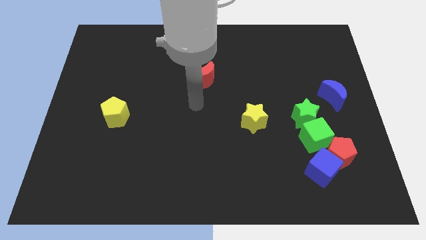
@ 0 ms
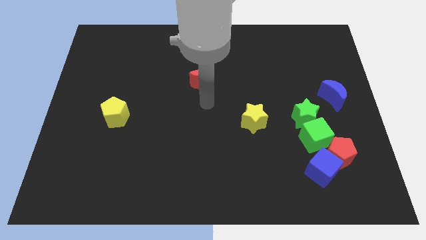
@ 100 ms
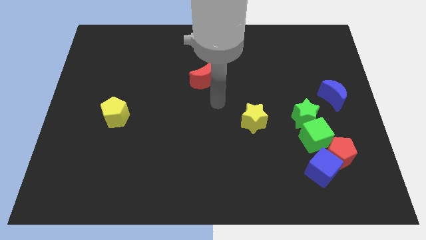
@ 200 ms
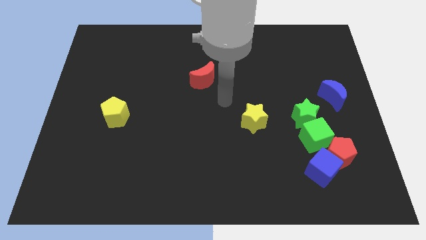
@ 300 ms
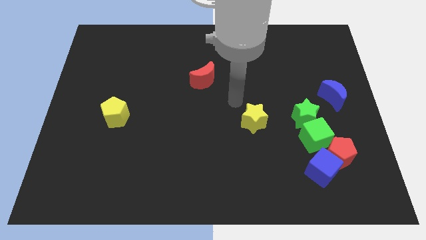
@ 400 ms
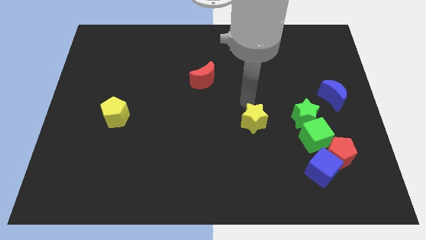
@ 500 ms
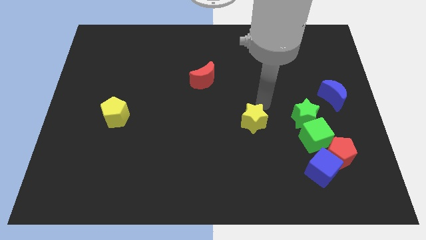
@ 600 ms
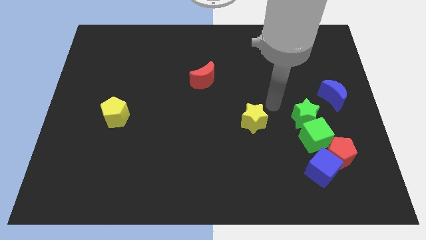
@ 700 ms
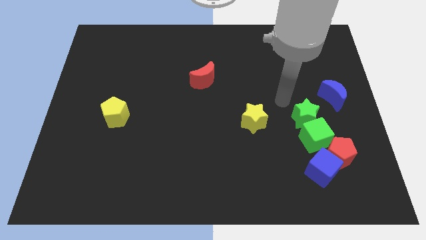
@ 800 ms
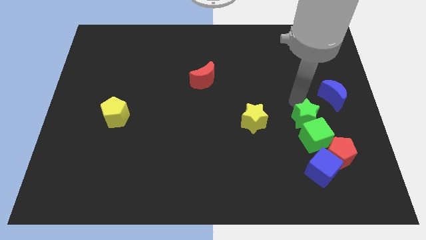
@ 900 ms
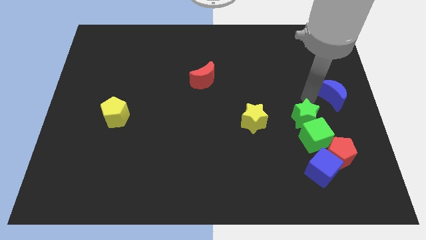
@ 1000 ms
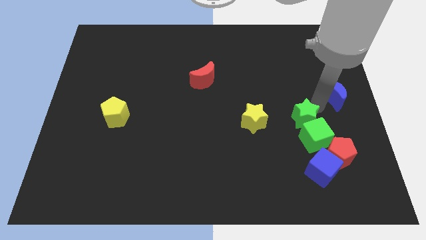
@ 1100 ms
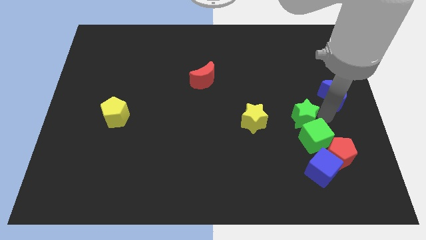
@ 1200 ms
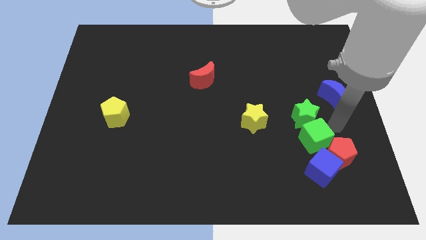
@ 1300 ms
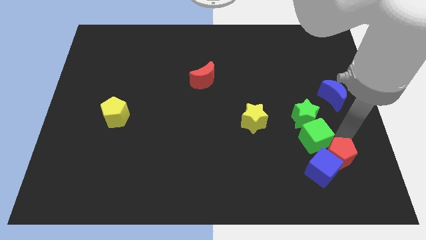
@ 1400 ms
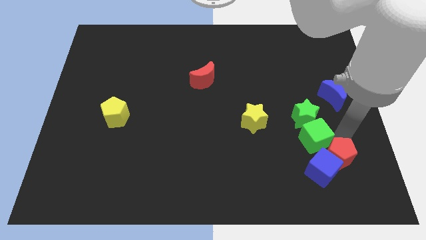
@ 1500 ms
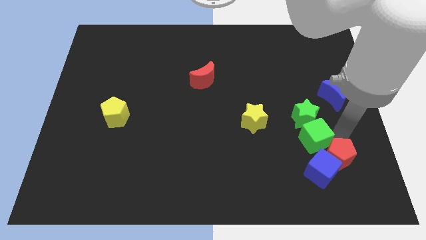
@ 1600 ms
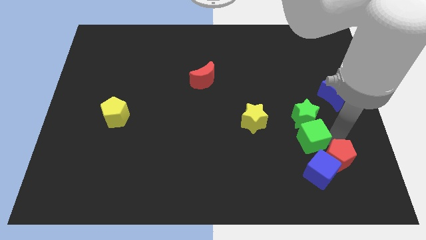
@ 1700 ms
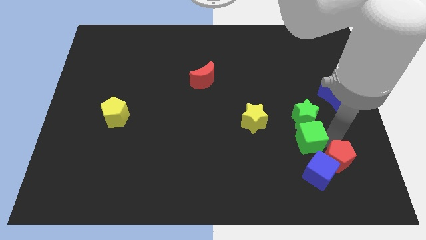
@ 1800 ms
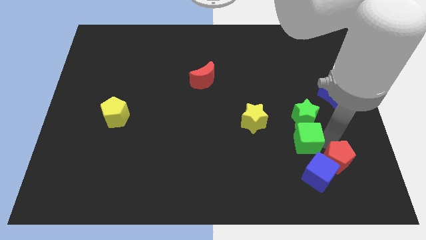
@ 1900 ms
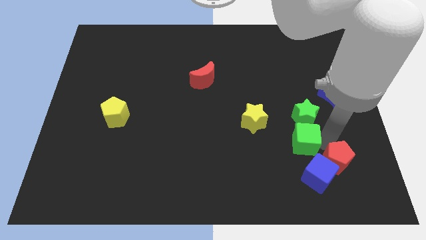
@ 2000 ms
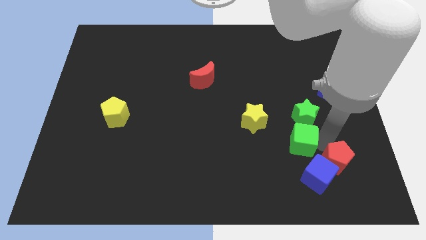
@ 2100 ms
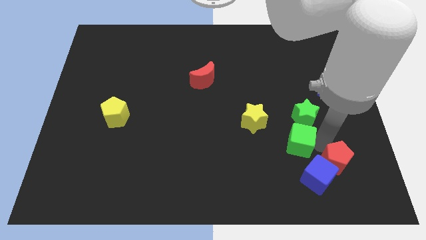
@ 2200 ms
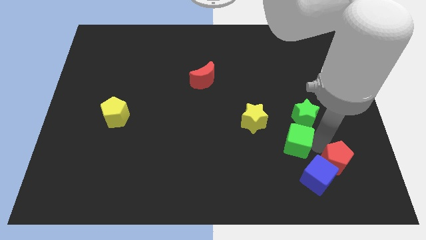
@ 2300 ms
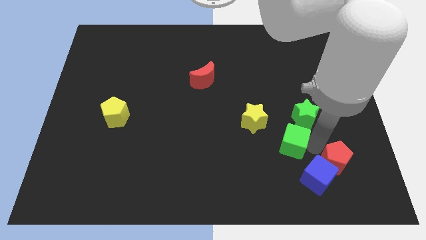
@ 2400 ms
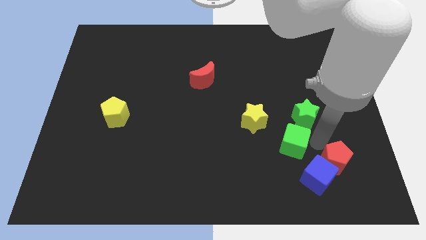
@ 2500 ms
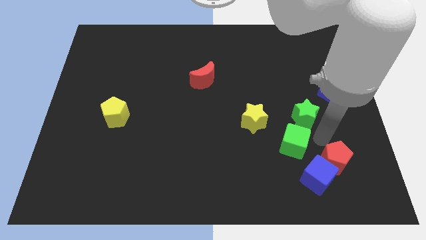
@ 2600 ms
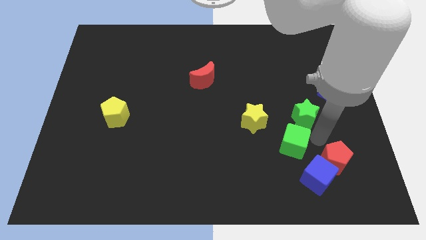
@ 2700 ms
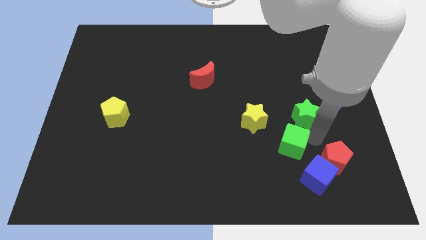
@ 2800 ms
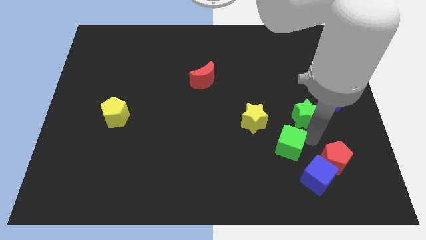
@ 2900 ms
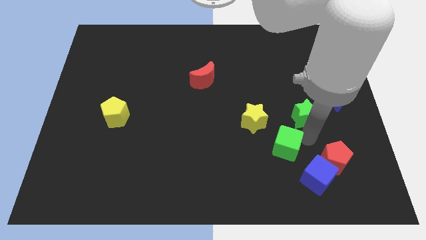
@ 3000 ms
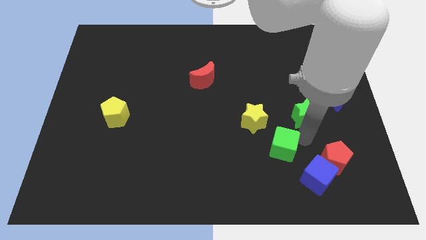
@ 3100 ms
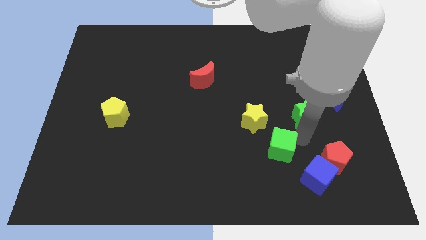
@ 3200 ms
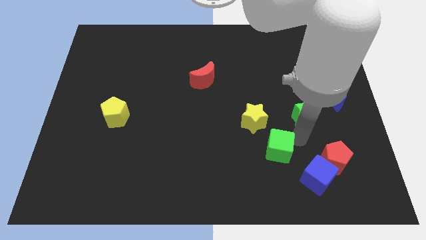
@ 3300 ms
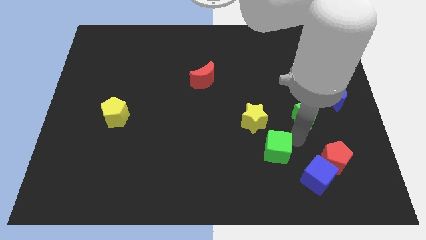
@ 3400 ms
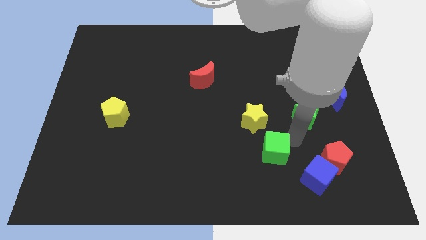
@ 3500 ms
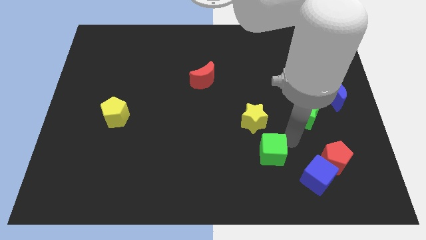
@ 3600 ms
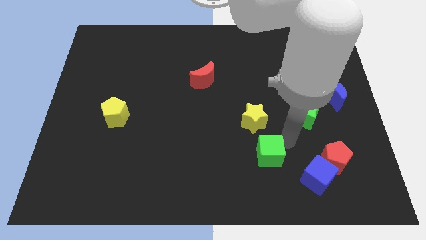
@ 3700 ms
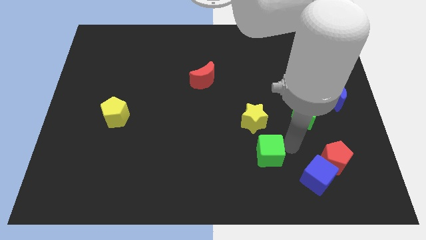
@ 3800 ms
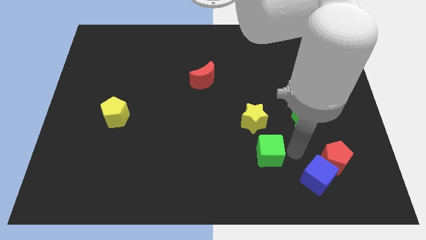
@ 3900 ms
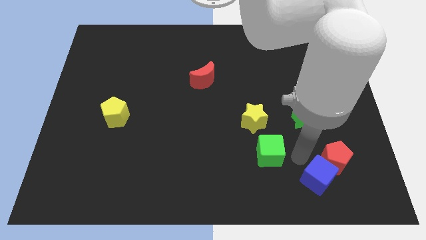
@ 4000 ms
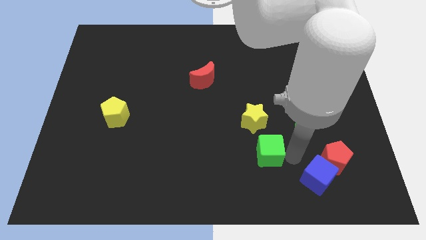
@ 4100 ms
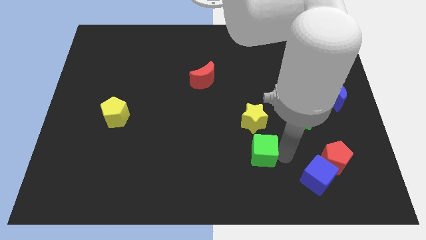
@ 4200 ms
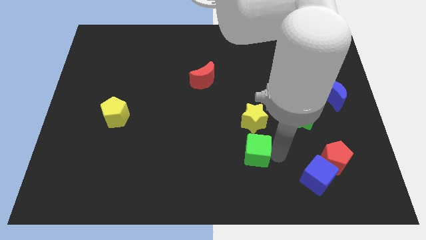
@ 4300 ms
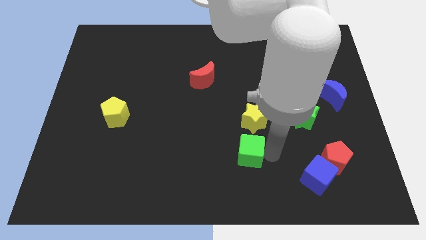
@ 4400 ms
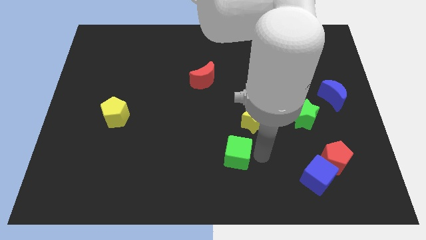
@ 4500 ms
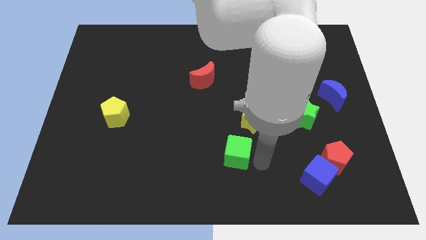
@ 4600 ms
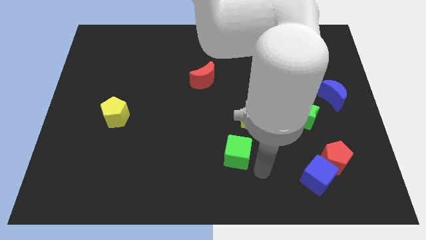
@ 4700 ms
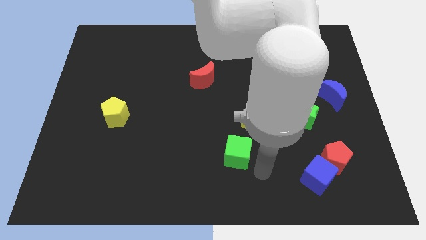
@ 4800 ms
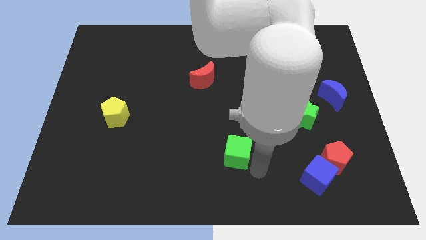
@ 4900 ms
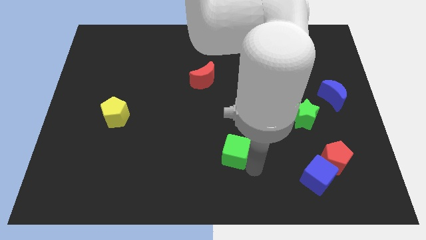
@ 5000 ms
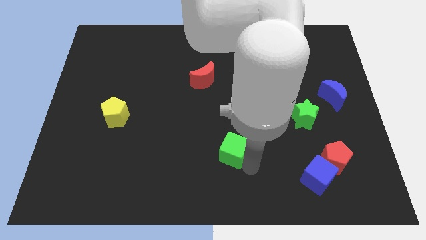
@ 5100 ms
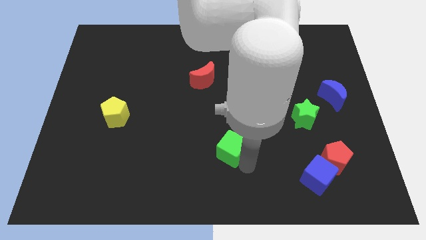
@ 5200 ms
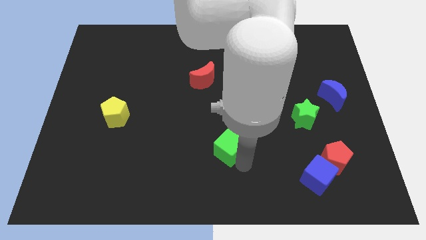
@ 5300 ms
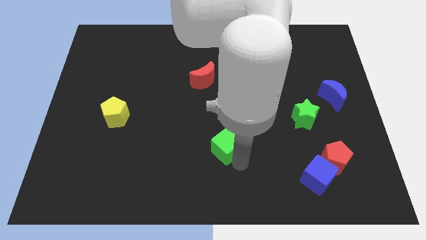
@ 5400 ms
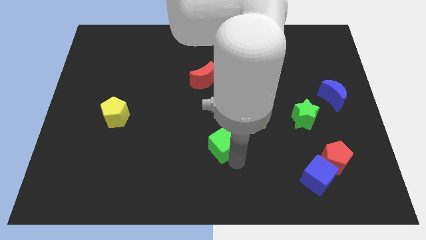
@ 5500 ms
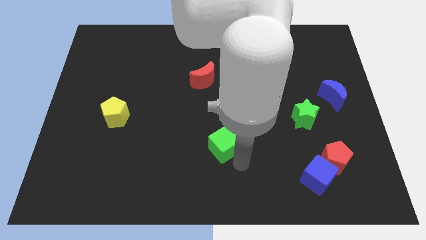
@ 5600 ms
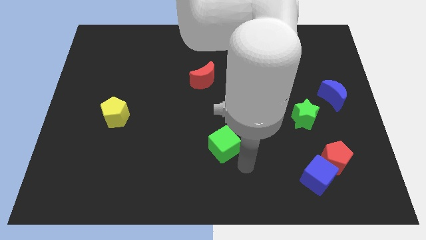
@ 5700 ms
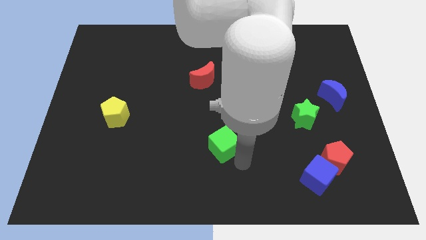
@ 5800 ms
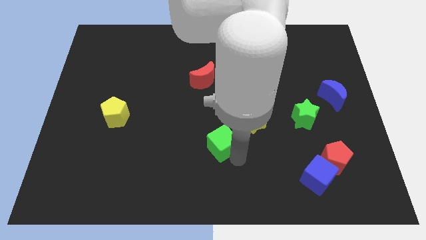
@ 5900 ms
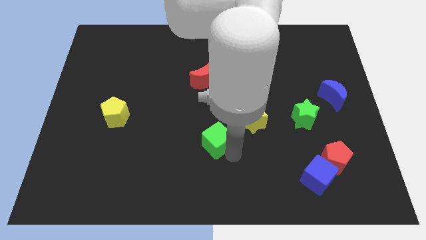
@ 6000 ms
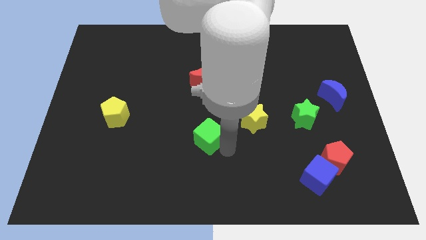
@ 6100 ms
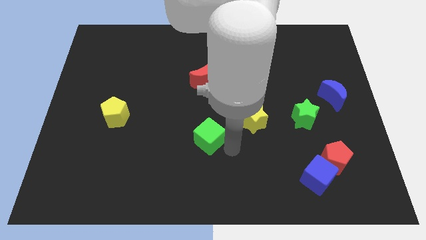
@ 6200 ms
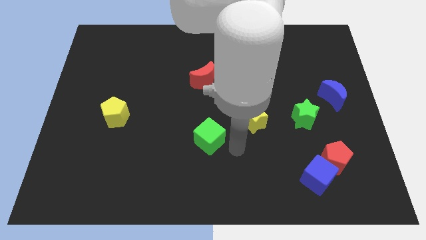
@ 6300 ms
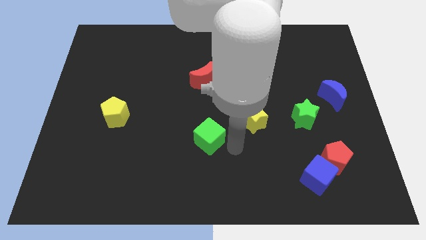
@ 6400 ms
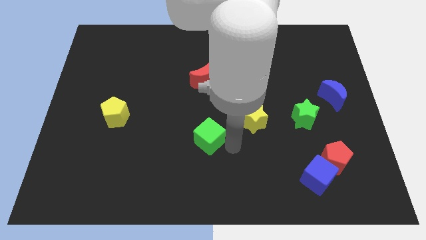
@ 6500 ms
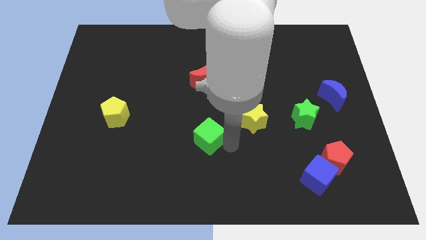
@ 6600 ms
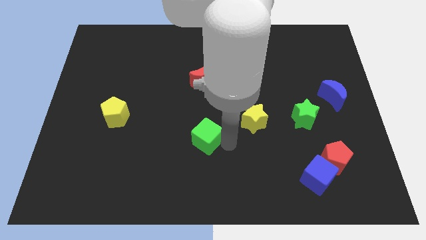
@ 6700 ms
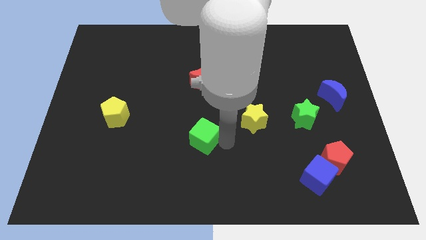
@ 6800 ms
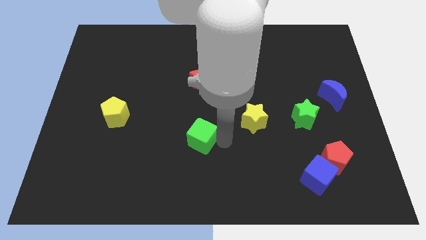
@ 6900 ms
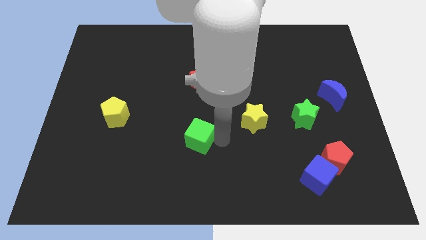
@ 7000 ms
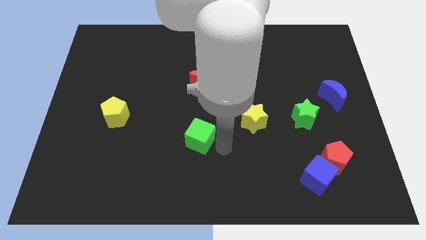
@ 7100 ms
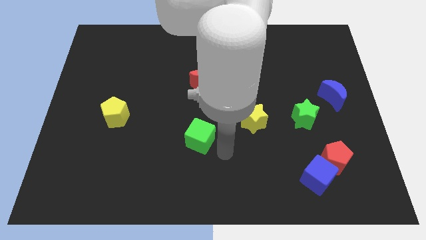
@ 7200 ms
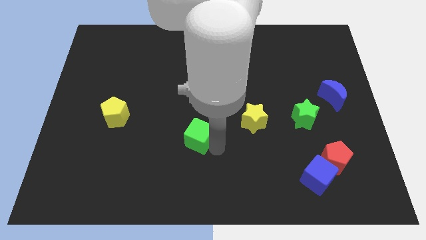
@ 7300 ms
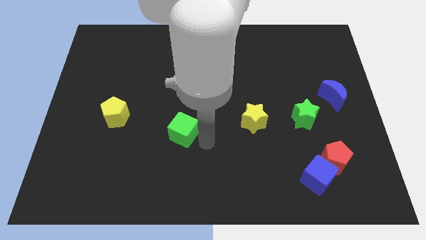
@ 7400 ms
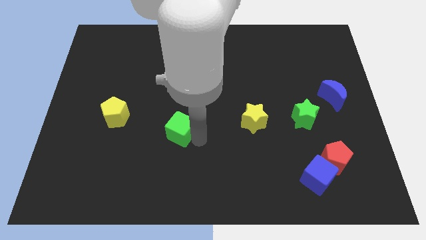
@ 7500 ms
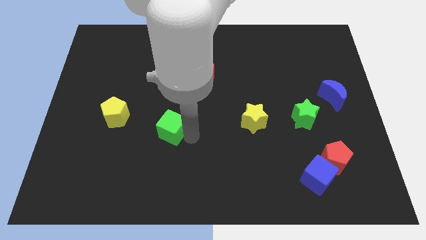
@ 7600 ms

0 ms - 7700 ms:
move the green cube to the right of the yellow pentagon
